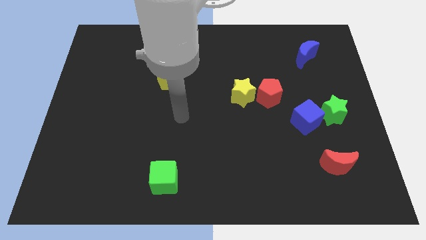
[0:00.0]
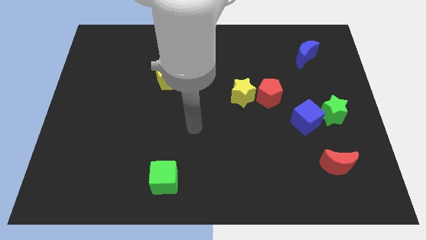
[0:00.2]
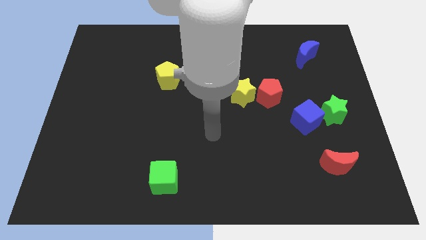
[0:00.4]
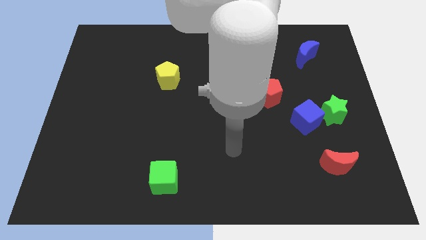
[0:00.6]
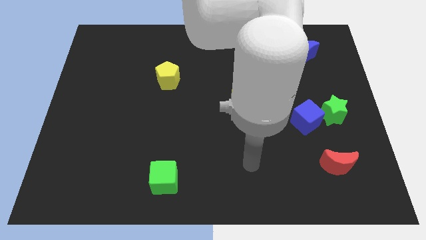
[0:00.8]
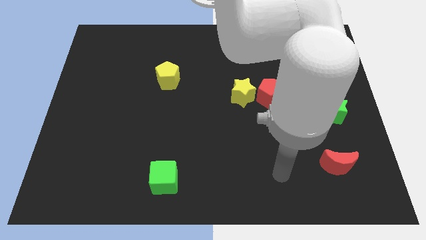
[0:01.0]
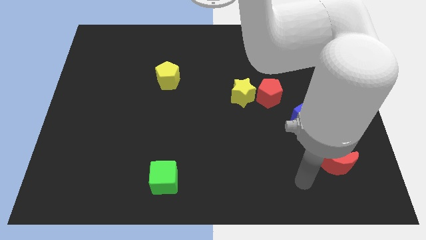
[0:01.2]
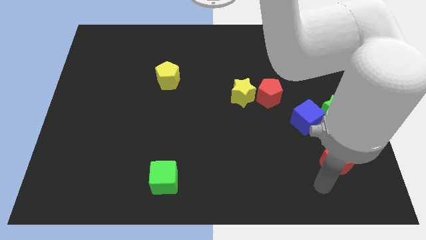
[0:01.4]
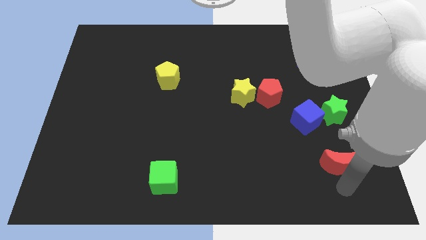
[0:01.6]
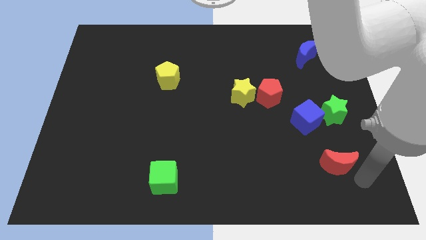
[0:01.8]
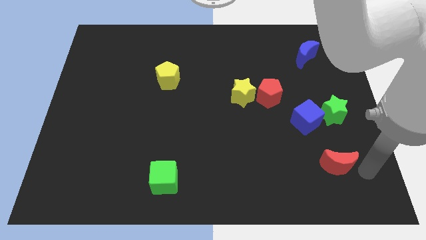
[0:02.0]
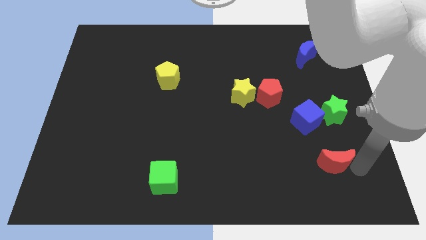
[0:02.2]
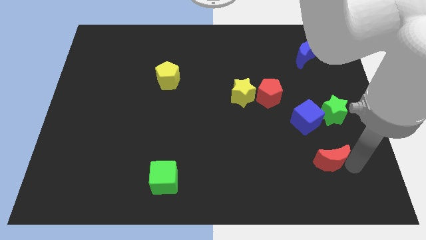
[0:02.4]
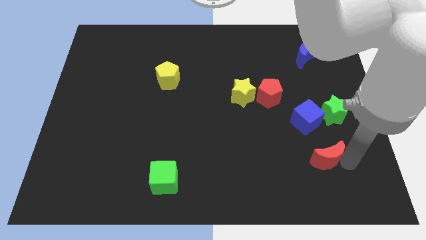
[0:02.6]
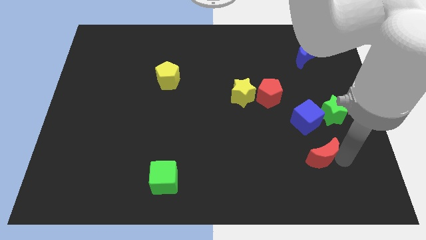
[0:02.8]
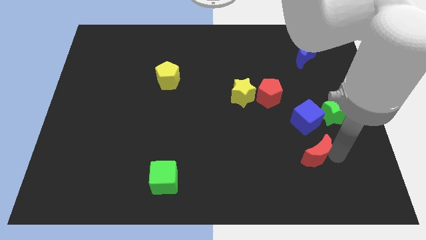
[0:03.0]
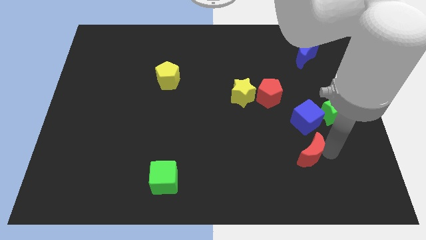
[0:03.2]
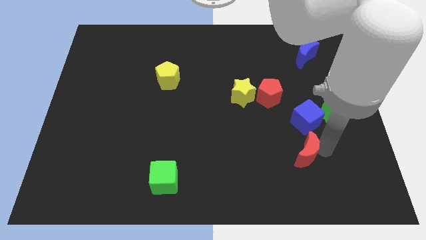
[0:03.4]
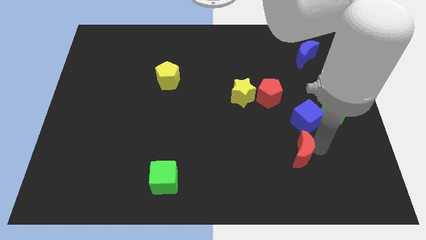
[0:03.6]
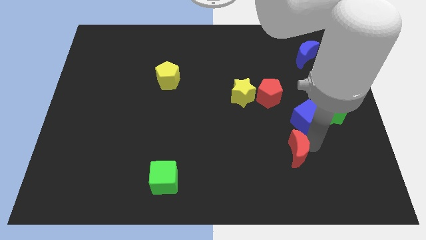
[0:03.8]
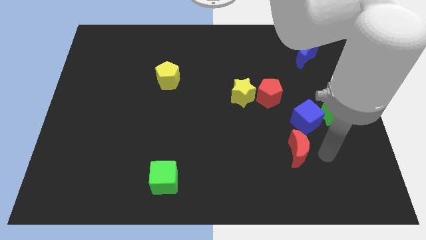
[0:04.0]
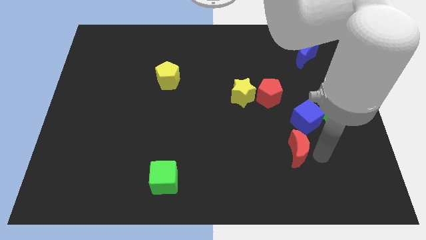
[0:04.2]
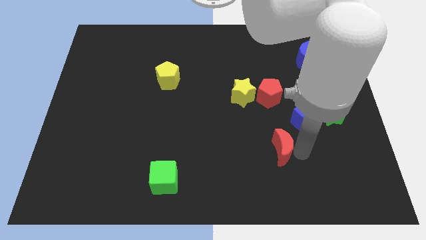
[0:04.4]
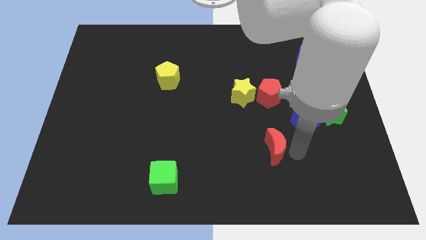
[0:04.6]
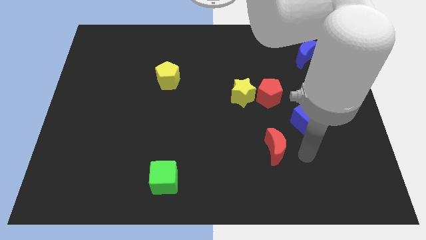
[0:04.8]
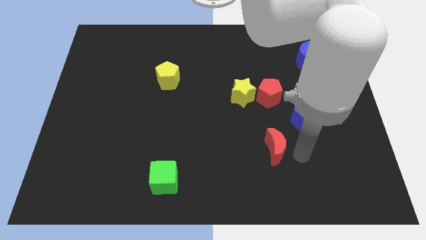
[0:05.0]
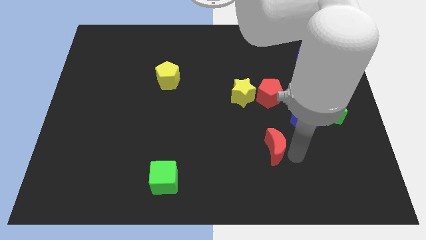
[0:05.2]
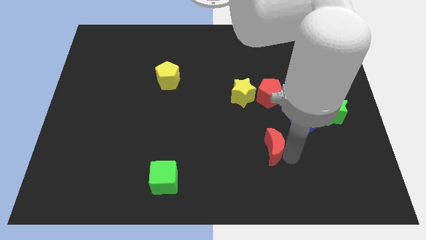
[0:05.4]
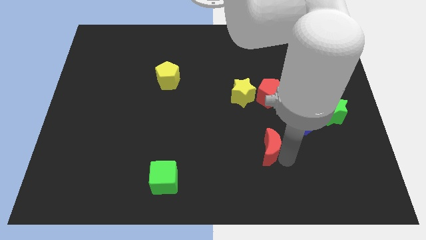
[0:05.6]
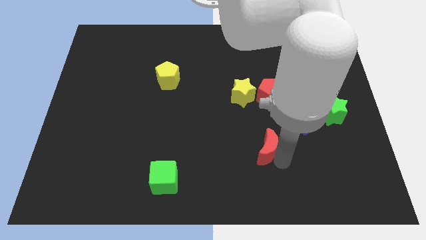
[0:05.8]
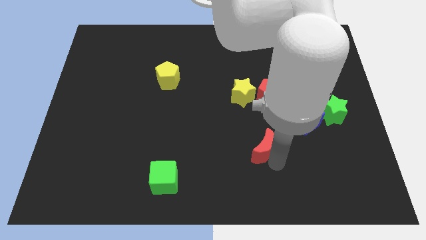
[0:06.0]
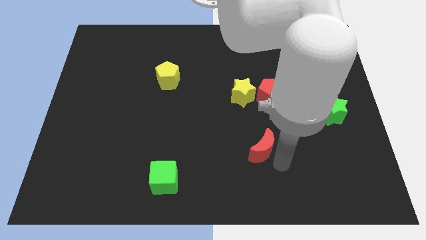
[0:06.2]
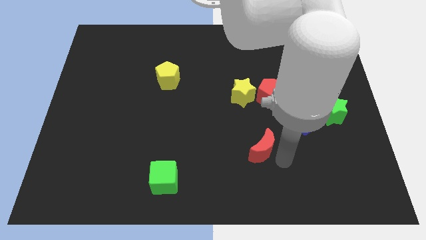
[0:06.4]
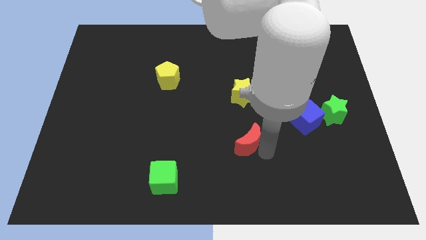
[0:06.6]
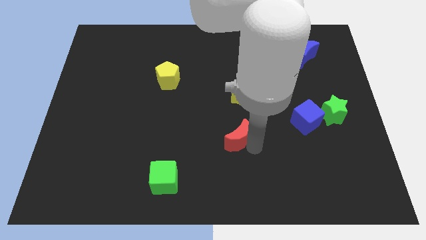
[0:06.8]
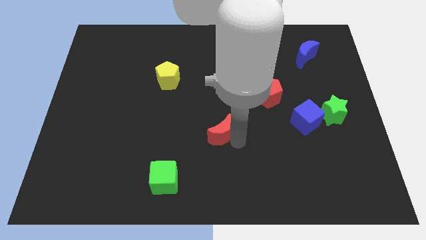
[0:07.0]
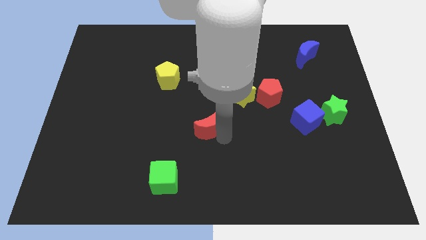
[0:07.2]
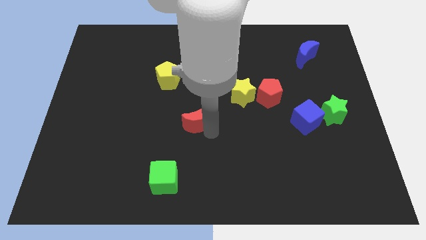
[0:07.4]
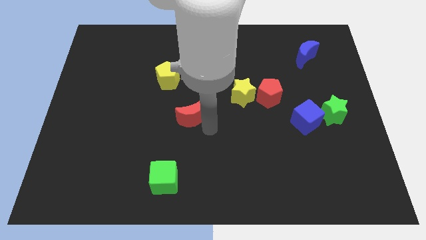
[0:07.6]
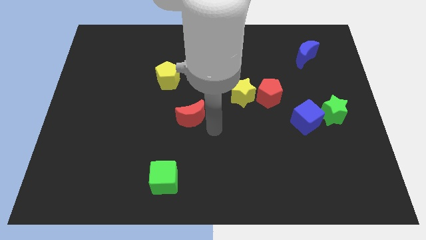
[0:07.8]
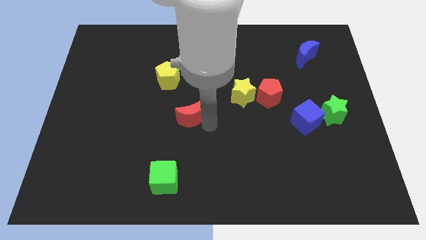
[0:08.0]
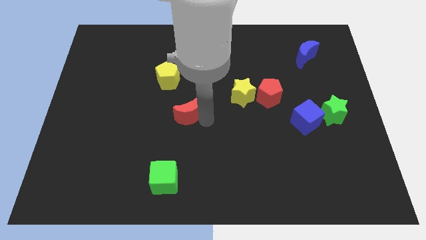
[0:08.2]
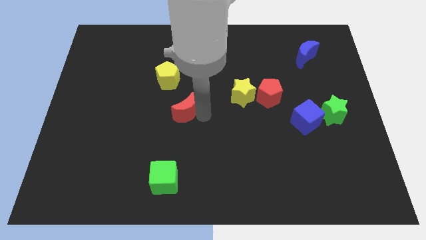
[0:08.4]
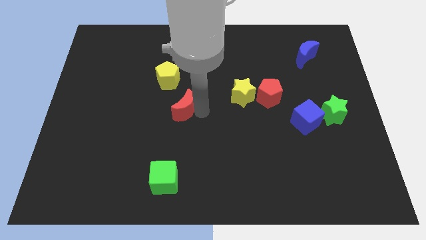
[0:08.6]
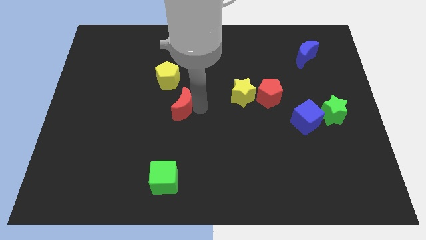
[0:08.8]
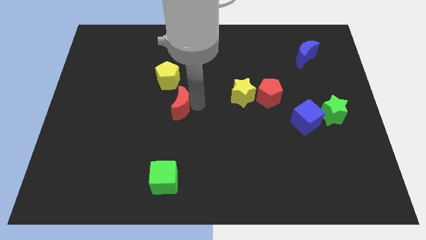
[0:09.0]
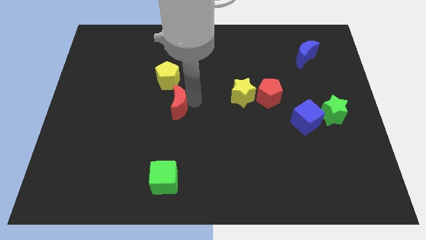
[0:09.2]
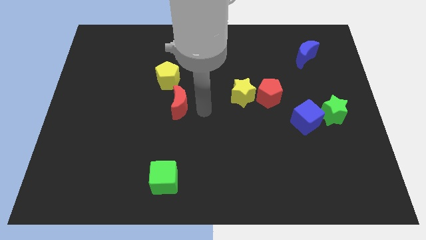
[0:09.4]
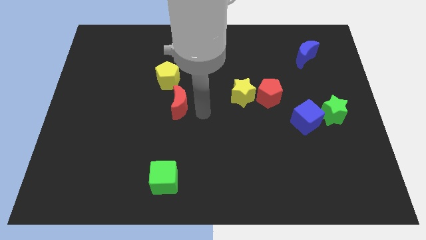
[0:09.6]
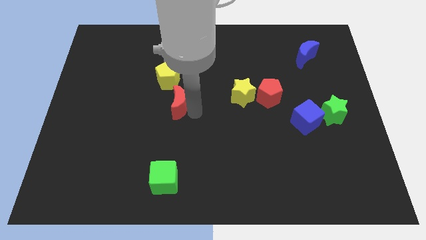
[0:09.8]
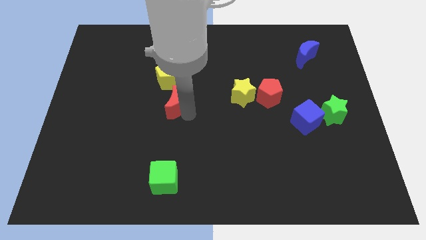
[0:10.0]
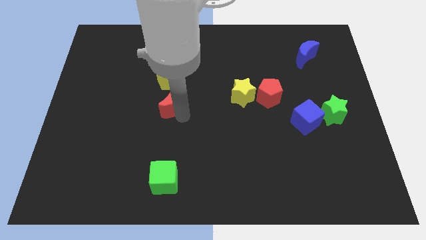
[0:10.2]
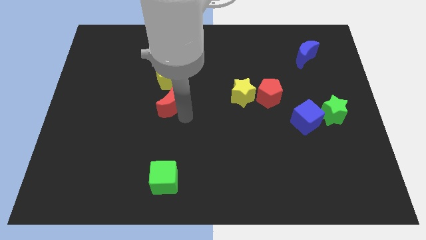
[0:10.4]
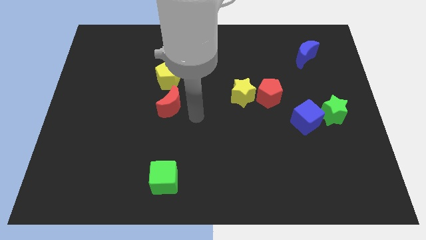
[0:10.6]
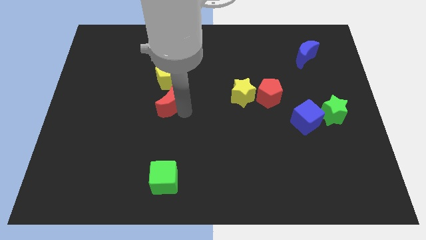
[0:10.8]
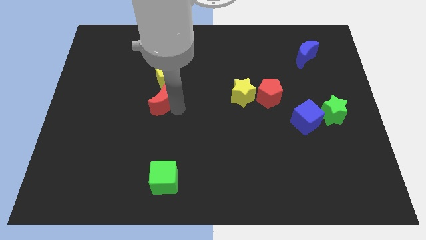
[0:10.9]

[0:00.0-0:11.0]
slide the red moon to the bottom left side of the yellow pentagon
